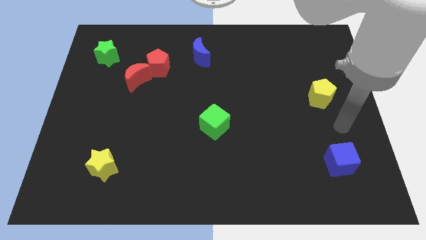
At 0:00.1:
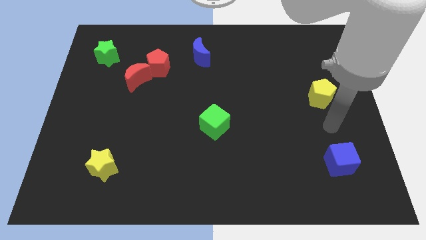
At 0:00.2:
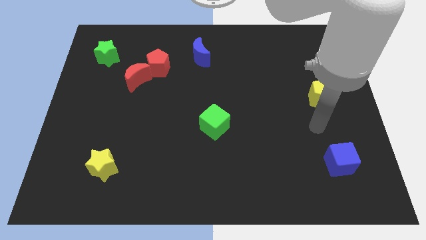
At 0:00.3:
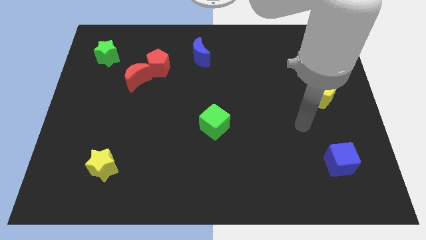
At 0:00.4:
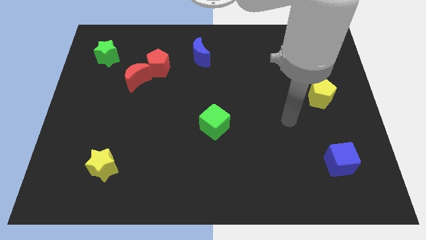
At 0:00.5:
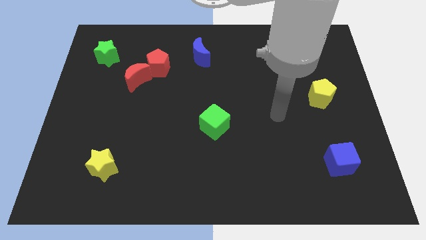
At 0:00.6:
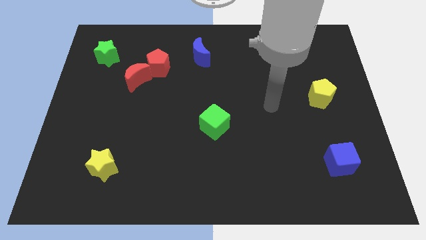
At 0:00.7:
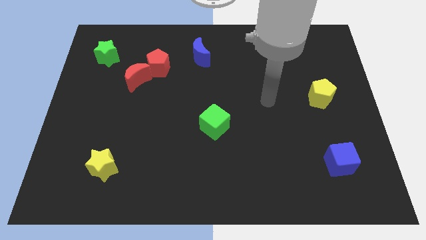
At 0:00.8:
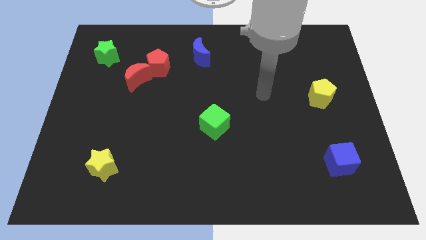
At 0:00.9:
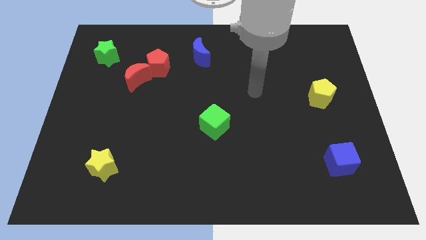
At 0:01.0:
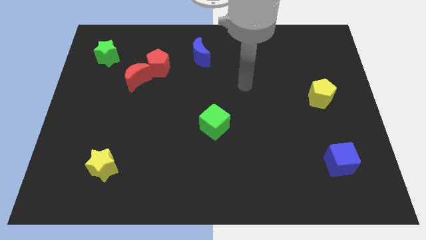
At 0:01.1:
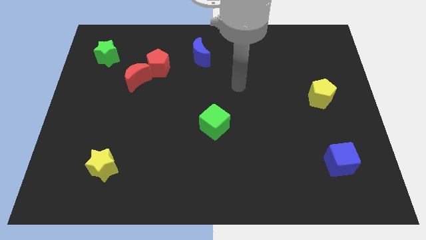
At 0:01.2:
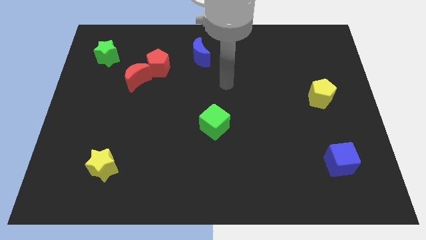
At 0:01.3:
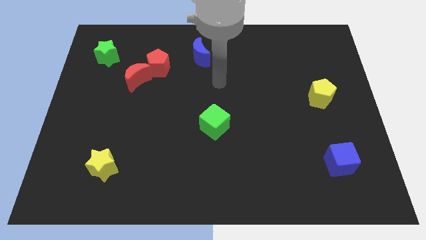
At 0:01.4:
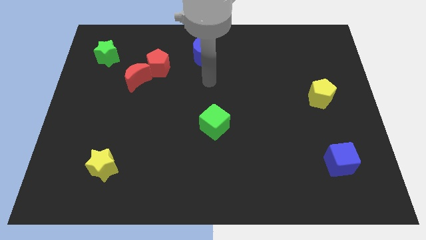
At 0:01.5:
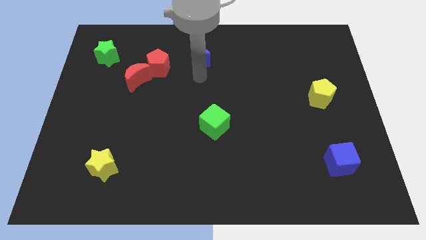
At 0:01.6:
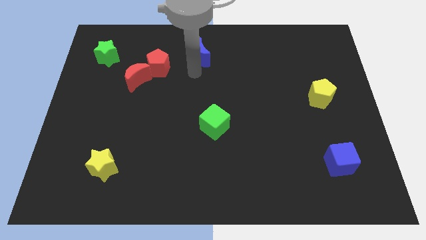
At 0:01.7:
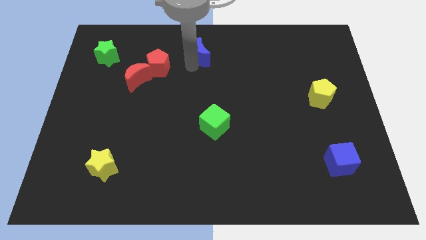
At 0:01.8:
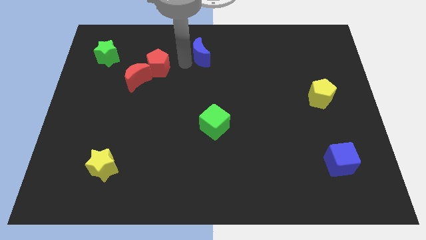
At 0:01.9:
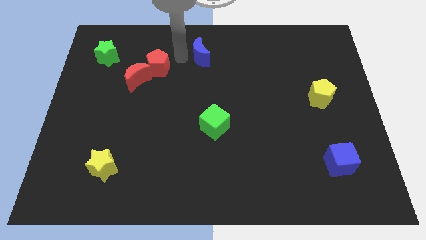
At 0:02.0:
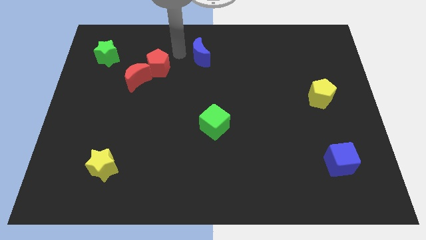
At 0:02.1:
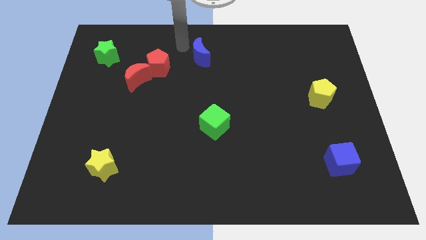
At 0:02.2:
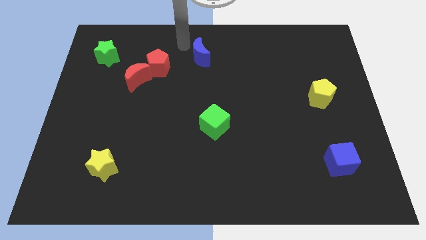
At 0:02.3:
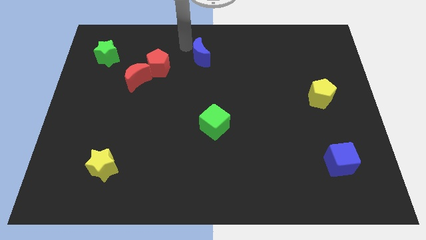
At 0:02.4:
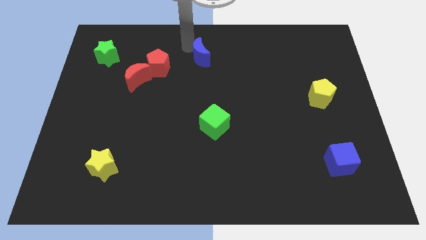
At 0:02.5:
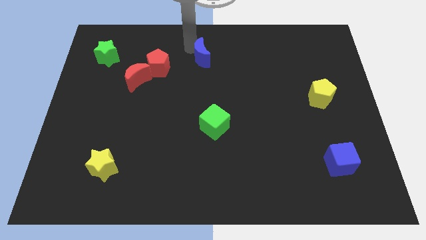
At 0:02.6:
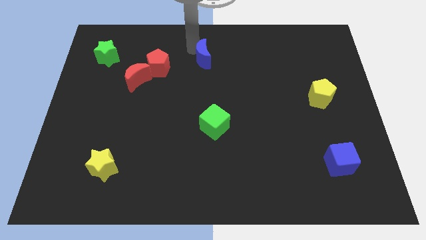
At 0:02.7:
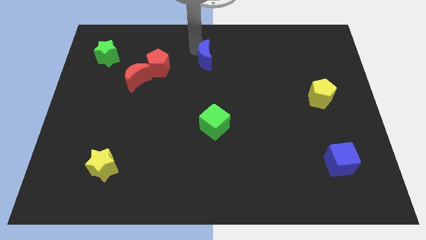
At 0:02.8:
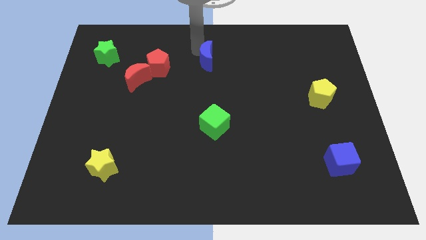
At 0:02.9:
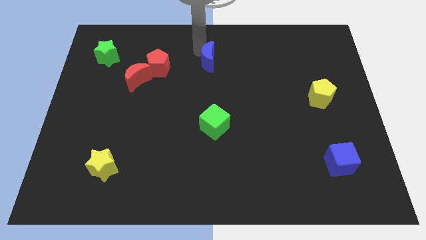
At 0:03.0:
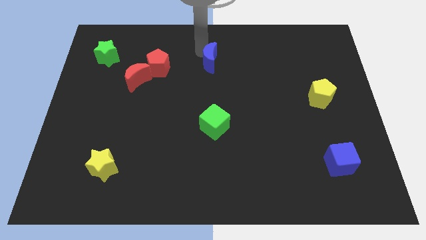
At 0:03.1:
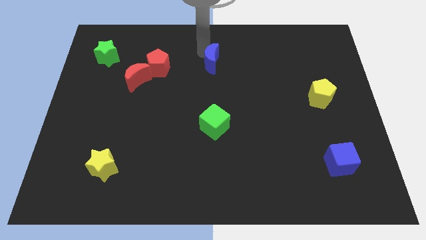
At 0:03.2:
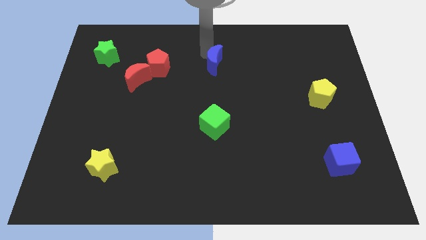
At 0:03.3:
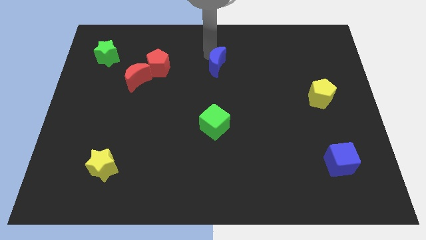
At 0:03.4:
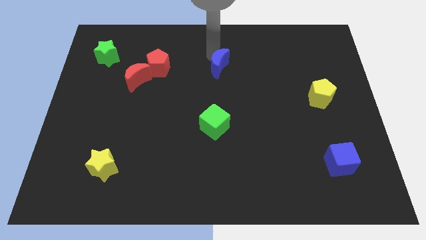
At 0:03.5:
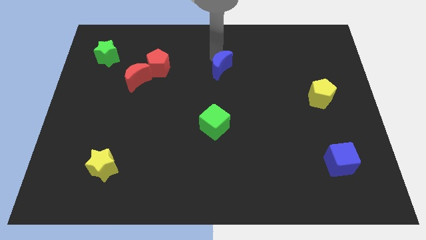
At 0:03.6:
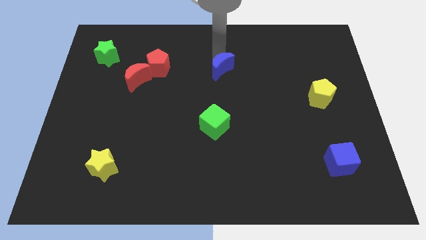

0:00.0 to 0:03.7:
slightly push the blue moon downwards and right diagonally

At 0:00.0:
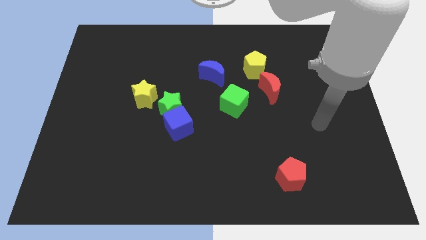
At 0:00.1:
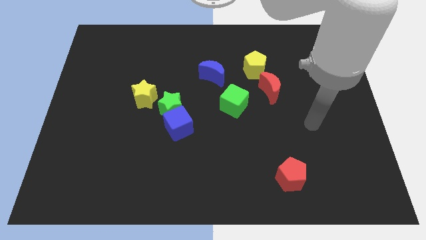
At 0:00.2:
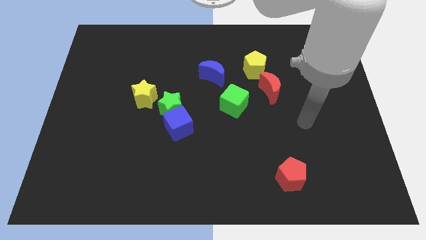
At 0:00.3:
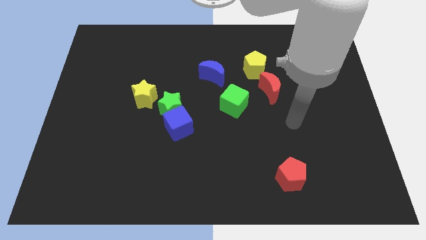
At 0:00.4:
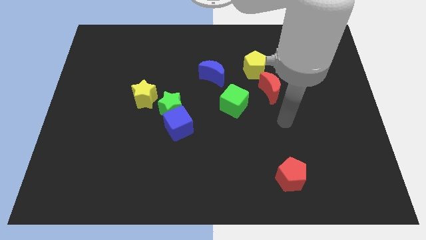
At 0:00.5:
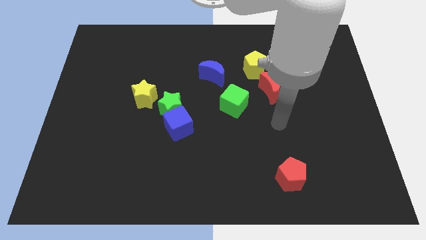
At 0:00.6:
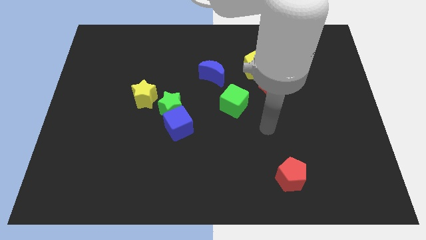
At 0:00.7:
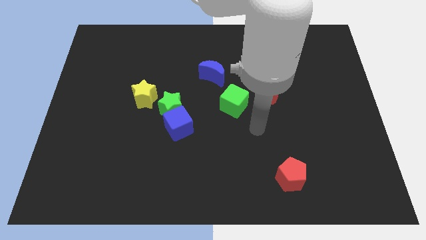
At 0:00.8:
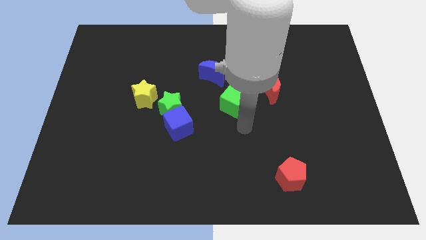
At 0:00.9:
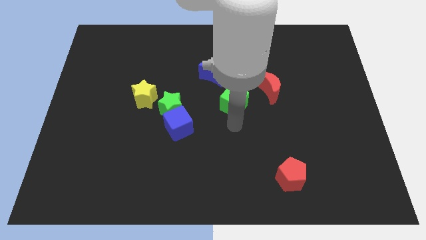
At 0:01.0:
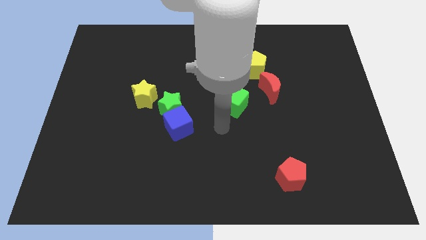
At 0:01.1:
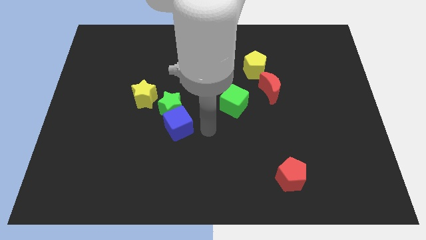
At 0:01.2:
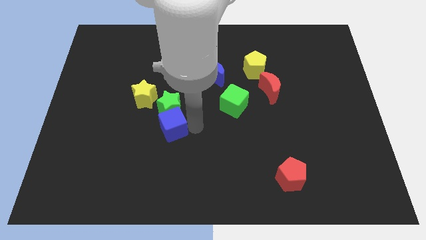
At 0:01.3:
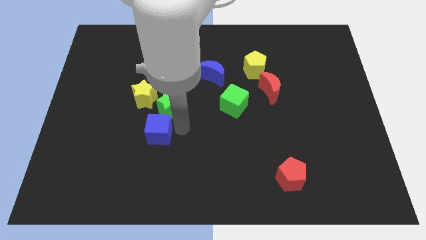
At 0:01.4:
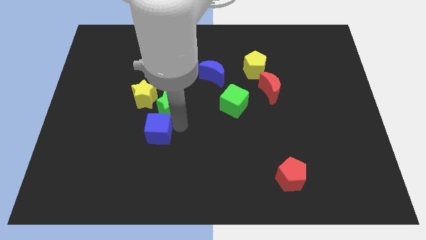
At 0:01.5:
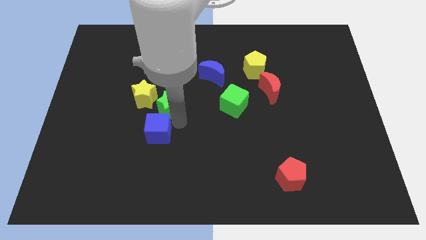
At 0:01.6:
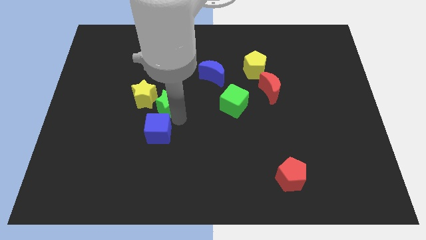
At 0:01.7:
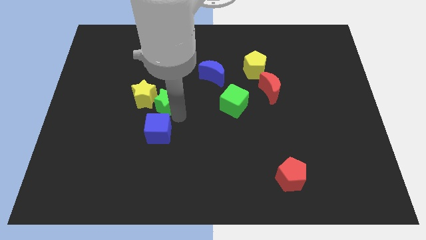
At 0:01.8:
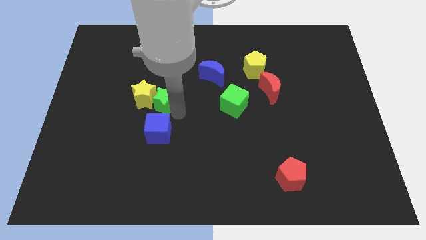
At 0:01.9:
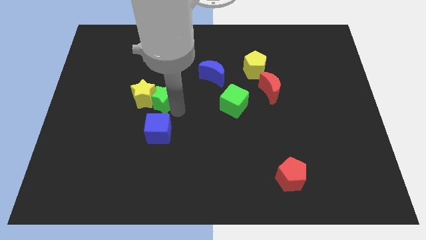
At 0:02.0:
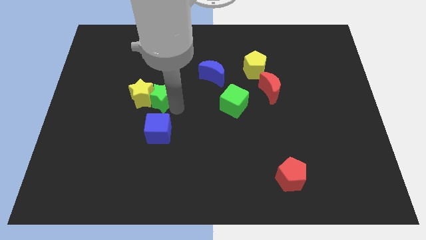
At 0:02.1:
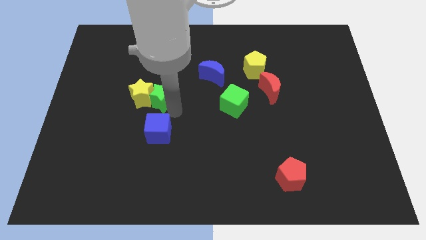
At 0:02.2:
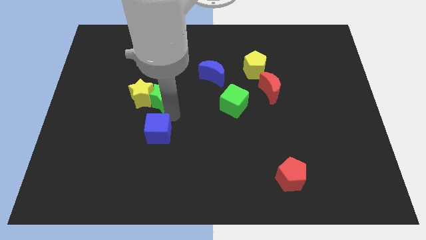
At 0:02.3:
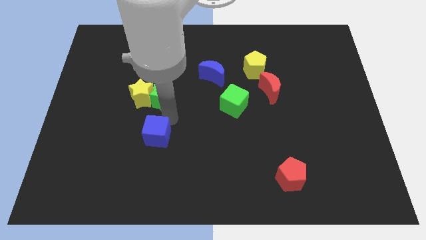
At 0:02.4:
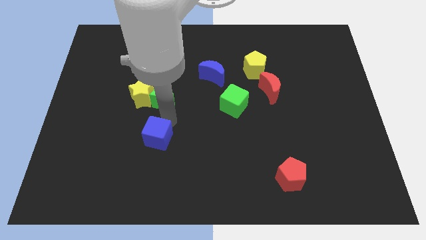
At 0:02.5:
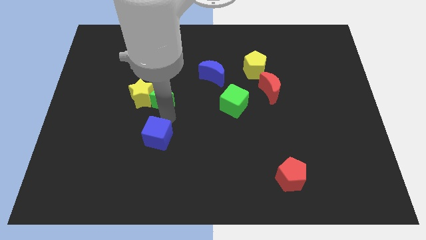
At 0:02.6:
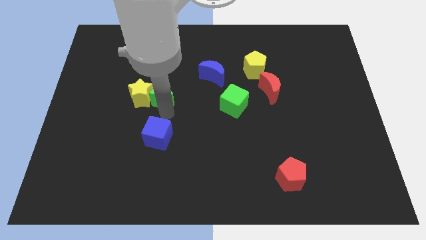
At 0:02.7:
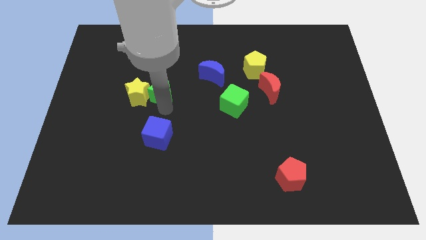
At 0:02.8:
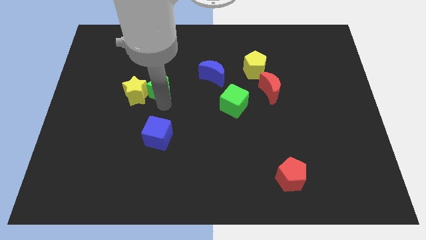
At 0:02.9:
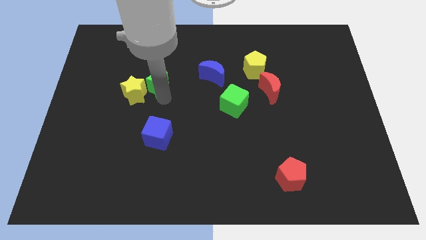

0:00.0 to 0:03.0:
slide the green star a little up and left diagonally

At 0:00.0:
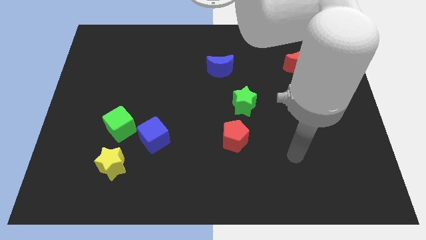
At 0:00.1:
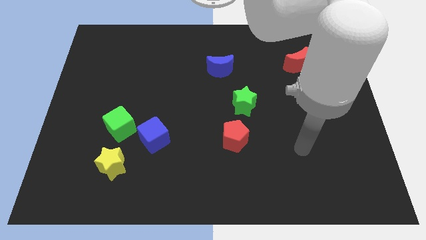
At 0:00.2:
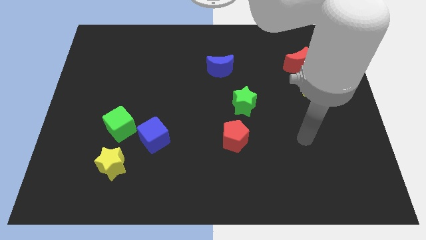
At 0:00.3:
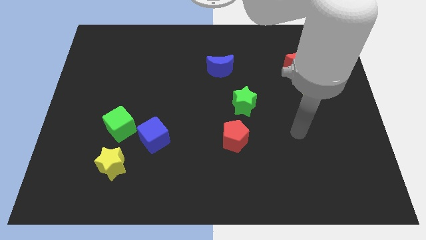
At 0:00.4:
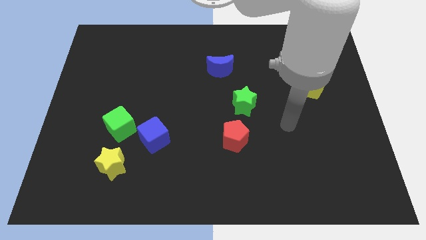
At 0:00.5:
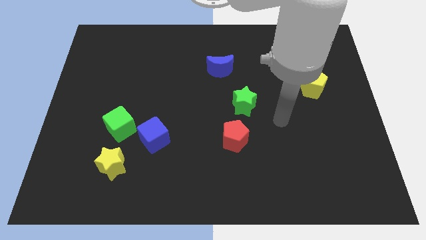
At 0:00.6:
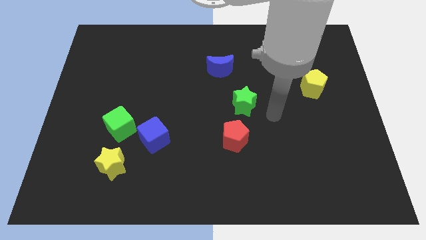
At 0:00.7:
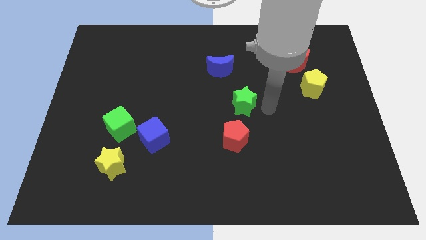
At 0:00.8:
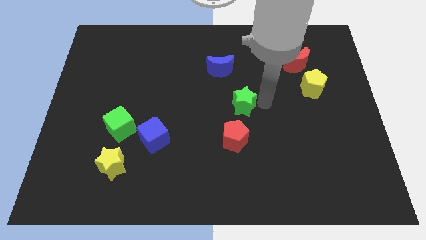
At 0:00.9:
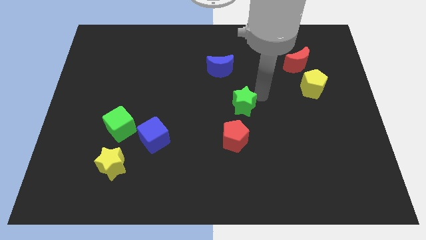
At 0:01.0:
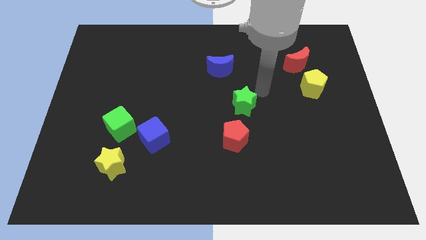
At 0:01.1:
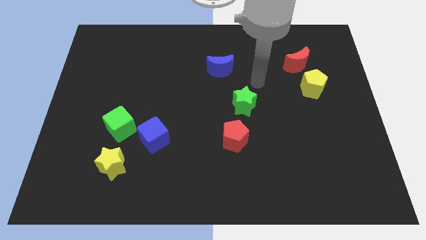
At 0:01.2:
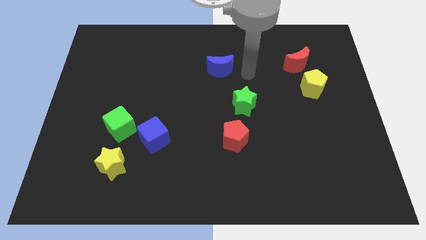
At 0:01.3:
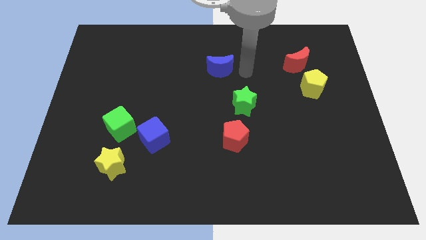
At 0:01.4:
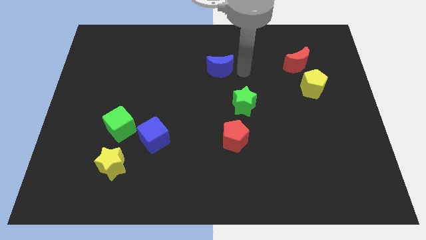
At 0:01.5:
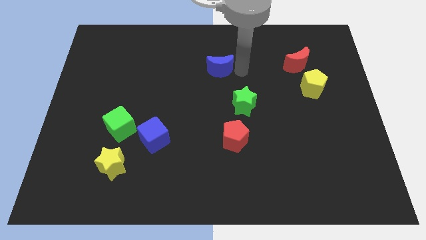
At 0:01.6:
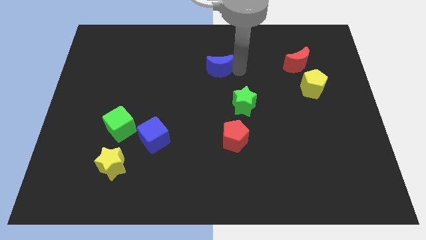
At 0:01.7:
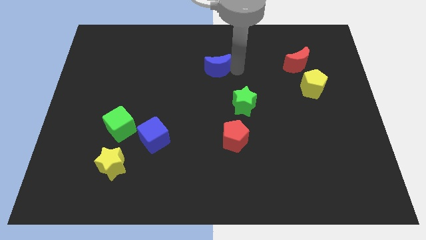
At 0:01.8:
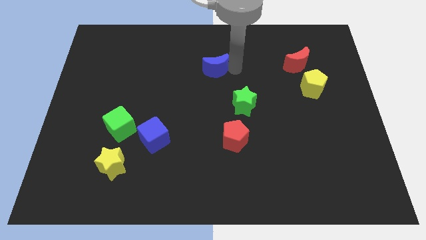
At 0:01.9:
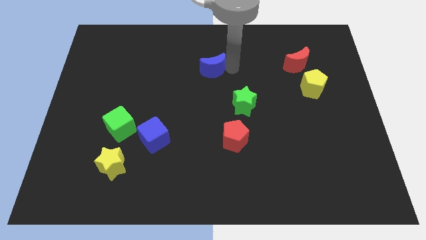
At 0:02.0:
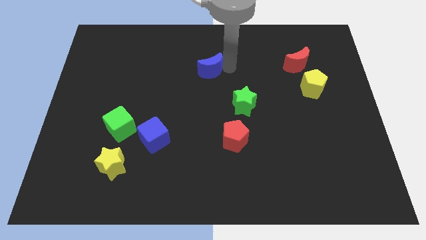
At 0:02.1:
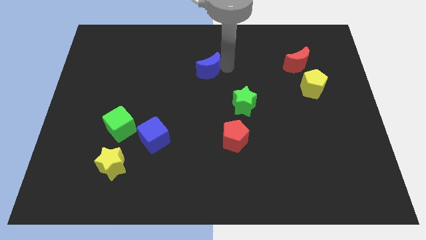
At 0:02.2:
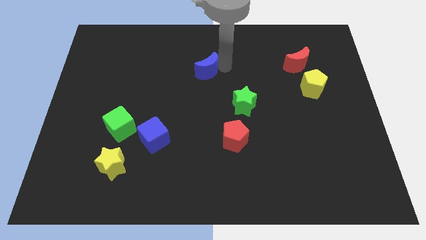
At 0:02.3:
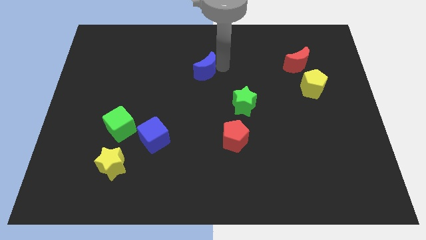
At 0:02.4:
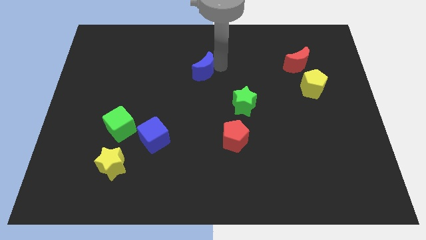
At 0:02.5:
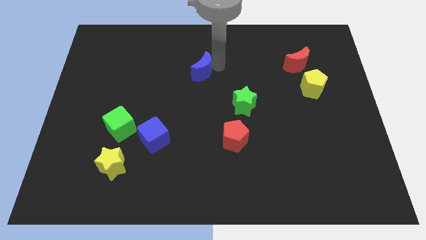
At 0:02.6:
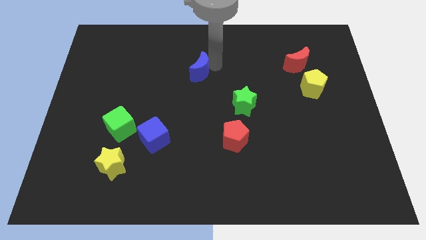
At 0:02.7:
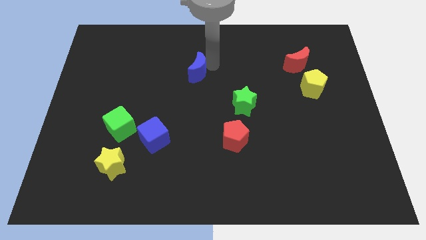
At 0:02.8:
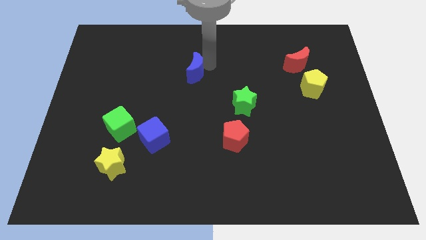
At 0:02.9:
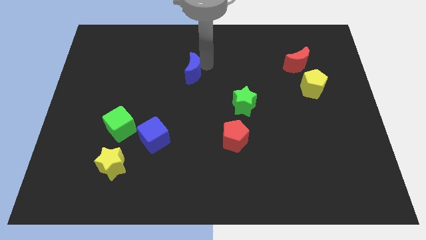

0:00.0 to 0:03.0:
slide the blue moon slightly left
